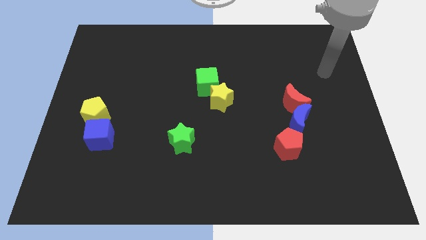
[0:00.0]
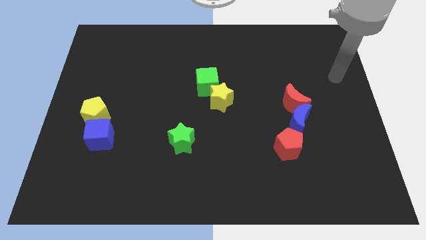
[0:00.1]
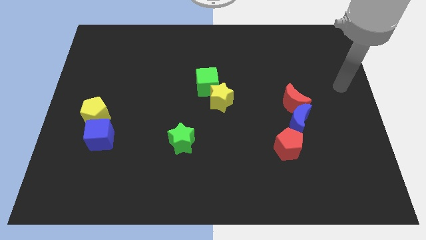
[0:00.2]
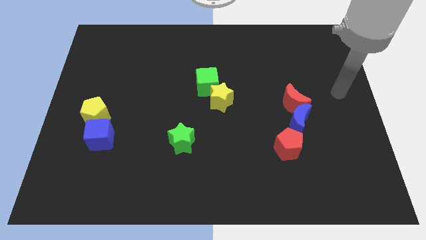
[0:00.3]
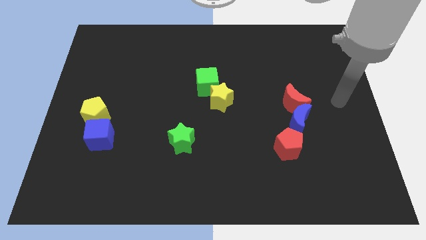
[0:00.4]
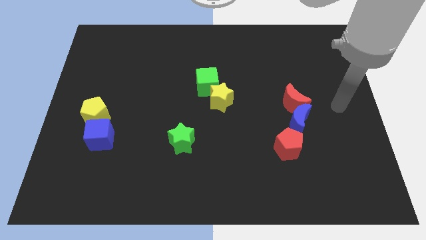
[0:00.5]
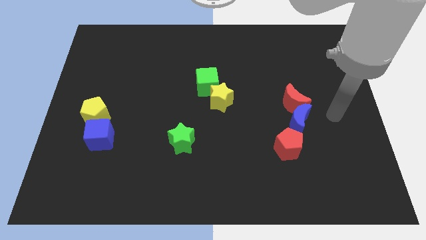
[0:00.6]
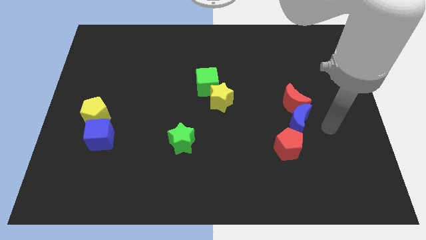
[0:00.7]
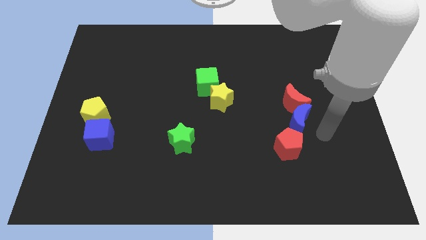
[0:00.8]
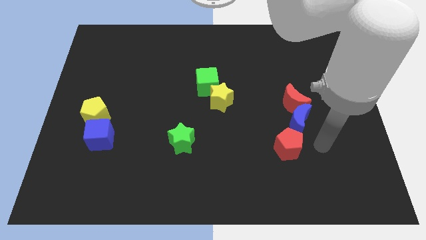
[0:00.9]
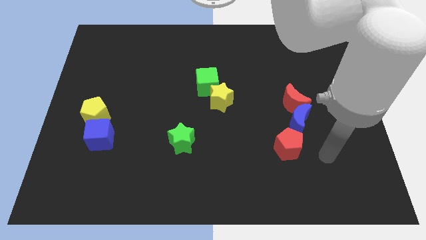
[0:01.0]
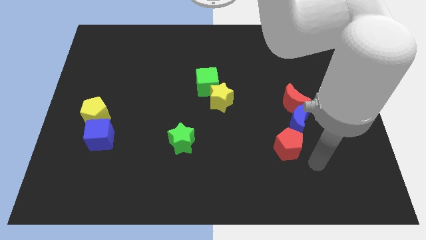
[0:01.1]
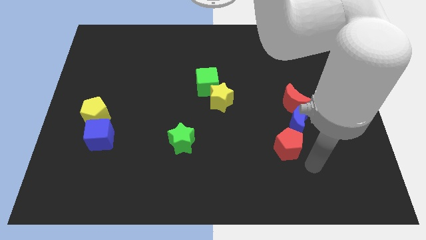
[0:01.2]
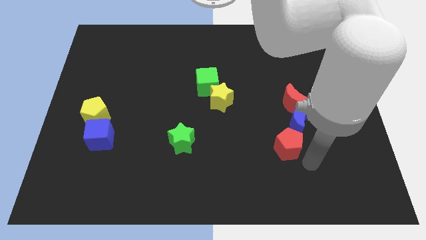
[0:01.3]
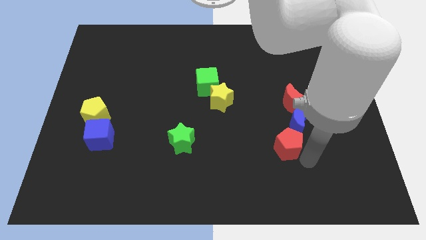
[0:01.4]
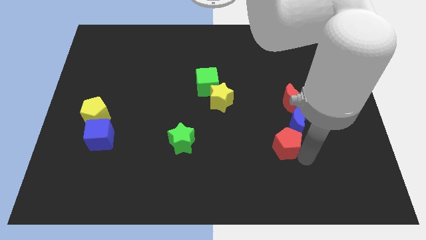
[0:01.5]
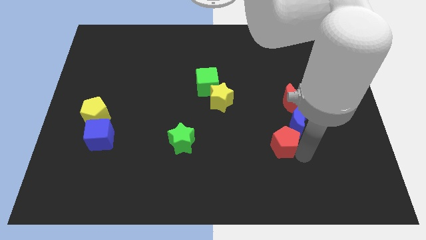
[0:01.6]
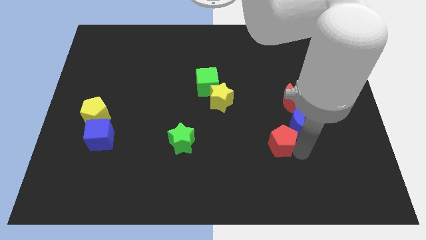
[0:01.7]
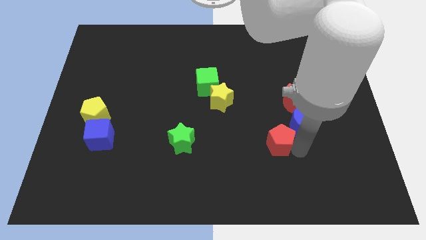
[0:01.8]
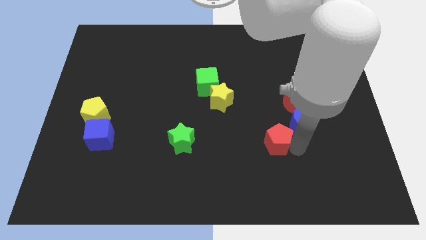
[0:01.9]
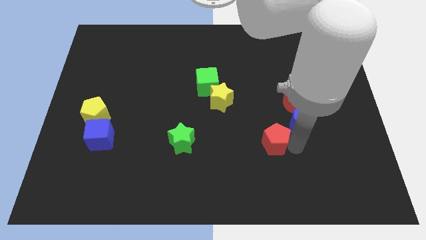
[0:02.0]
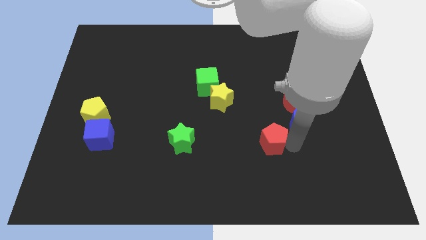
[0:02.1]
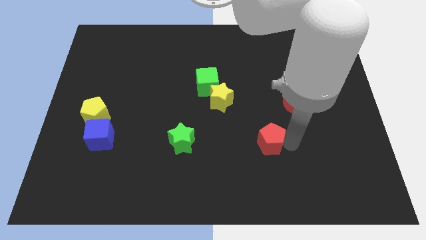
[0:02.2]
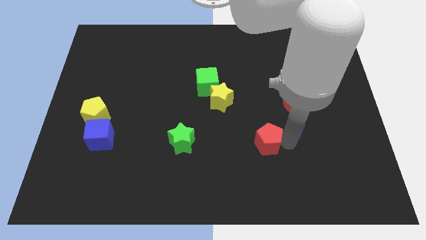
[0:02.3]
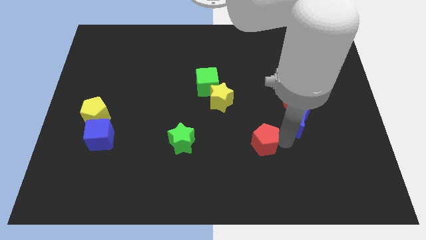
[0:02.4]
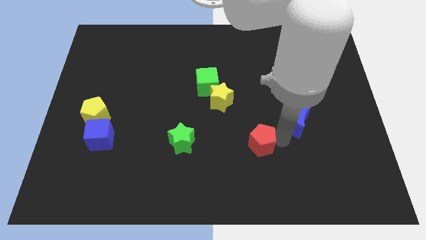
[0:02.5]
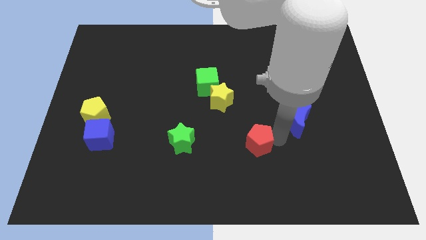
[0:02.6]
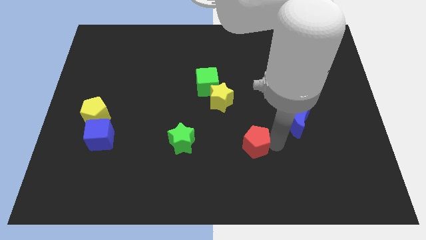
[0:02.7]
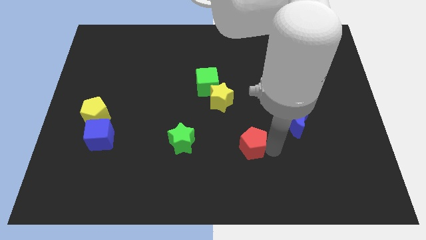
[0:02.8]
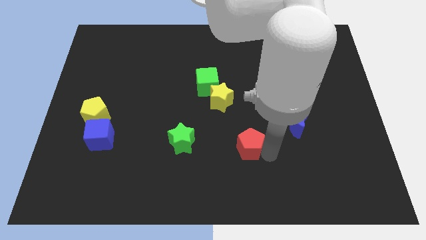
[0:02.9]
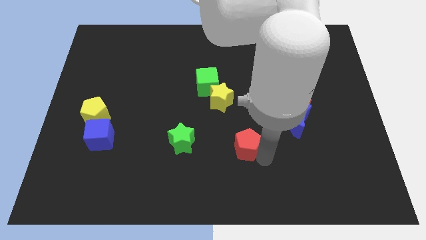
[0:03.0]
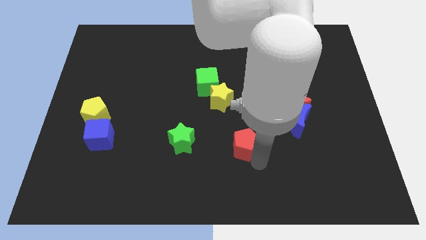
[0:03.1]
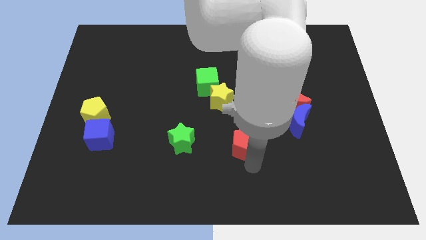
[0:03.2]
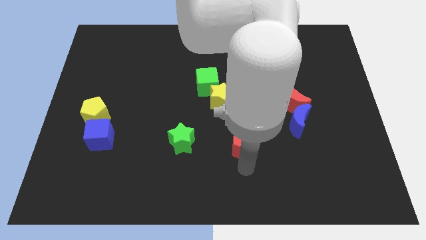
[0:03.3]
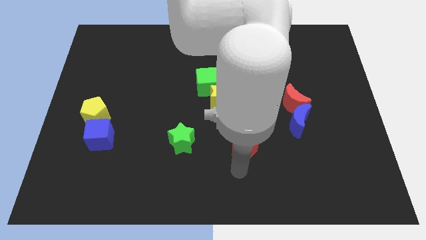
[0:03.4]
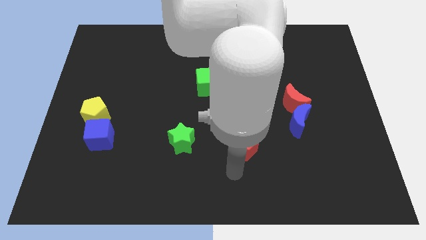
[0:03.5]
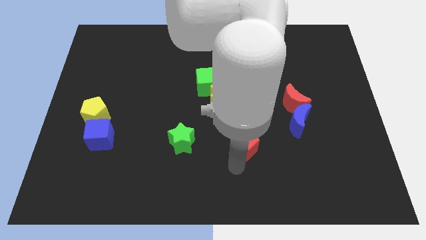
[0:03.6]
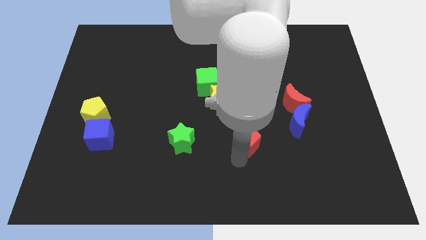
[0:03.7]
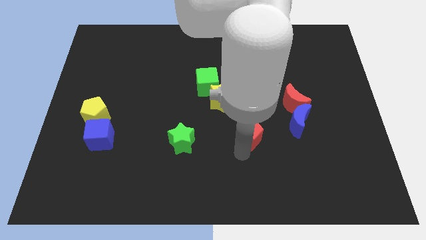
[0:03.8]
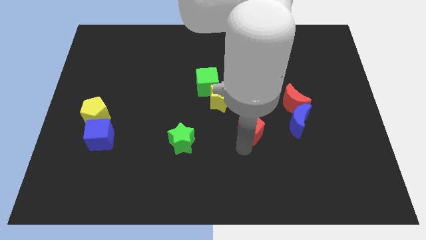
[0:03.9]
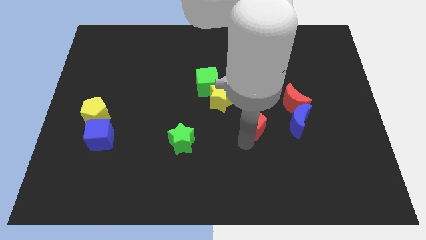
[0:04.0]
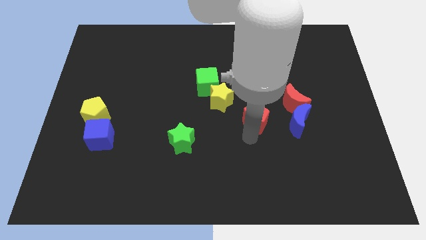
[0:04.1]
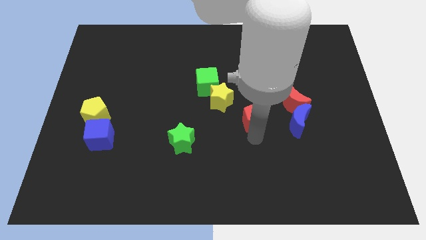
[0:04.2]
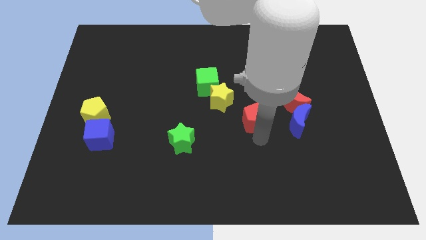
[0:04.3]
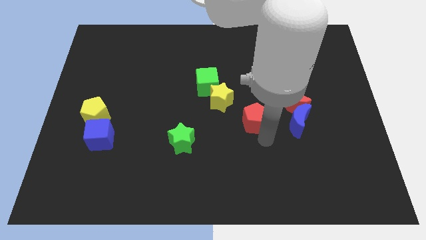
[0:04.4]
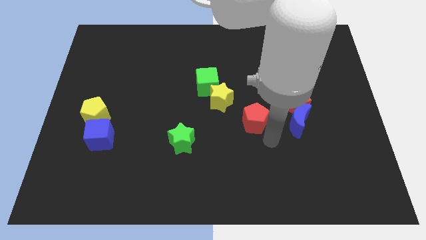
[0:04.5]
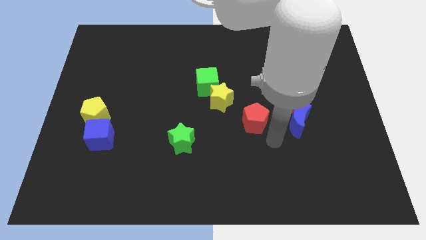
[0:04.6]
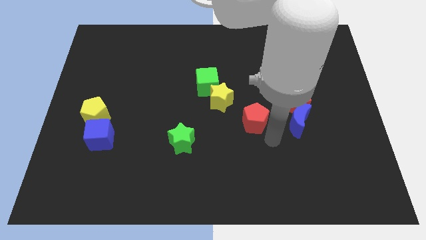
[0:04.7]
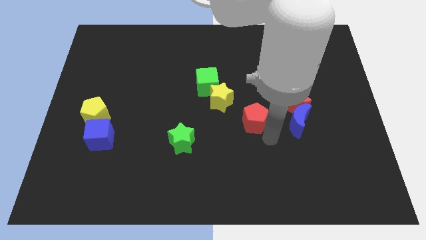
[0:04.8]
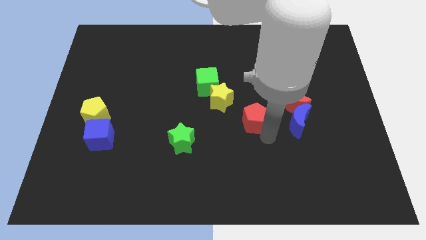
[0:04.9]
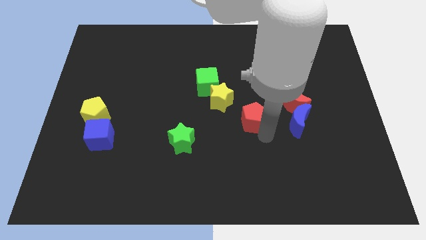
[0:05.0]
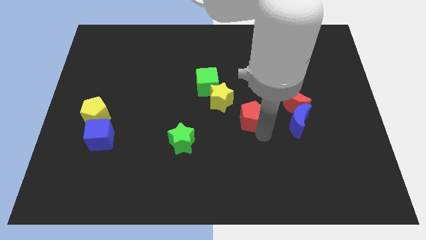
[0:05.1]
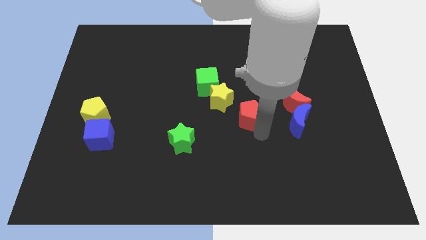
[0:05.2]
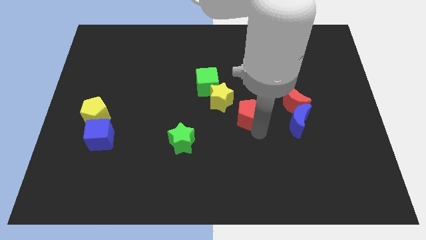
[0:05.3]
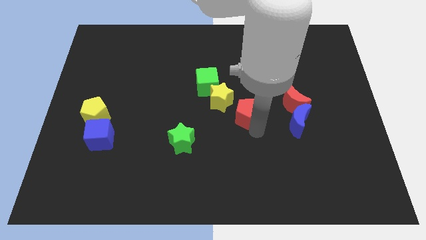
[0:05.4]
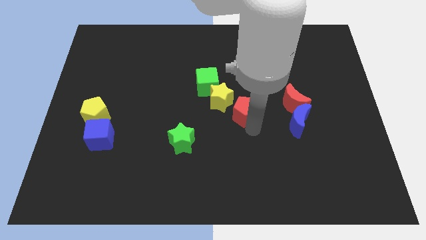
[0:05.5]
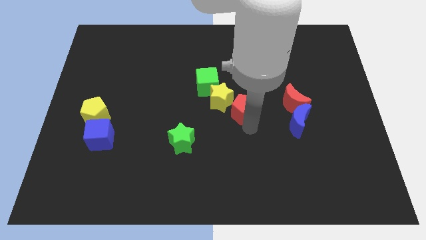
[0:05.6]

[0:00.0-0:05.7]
push the red pentagon next to the yellow star

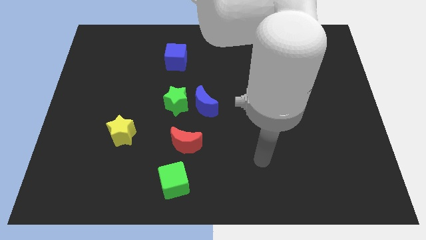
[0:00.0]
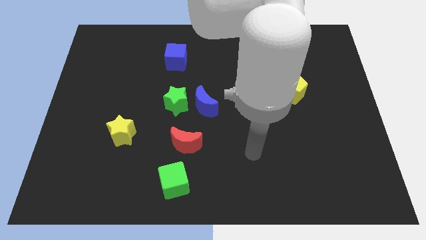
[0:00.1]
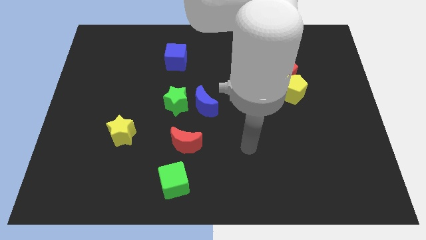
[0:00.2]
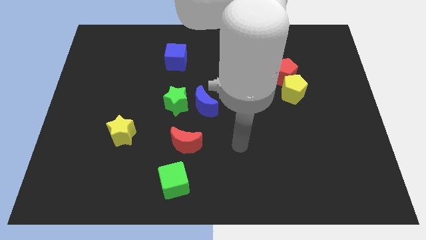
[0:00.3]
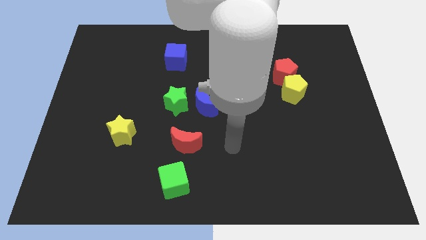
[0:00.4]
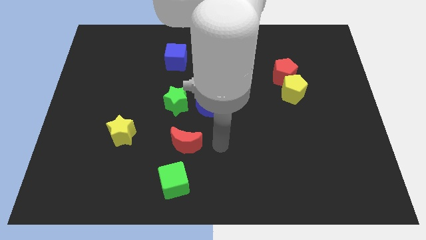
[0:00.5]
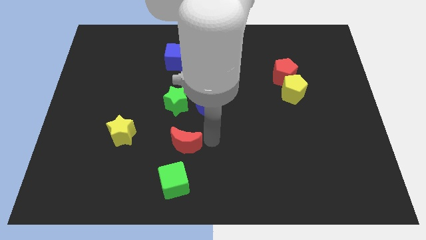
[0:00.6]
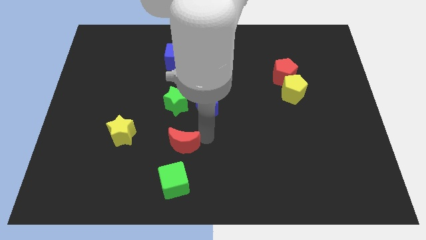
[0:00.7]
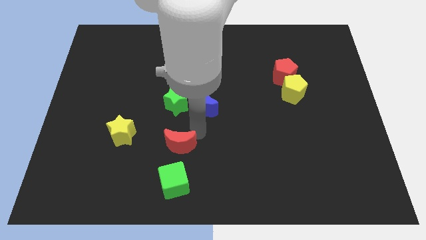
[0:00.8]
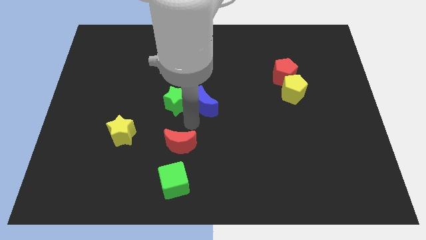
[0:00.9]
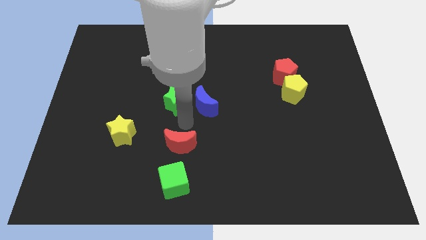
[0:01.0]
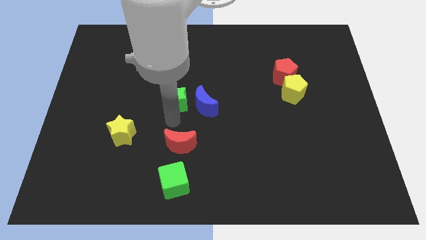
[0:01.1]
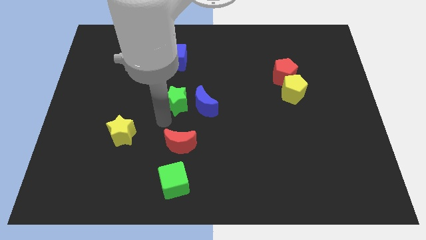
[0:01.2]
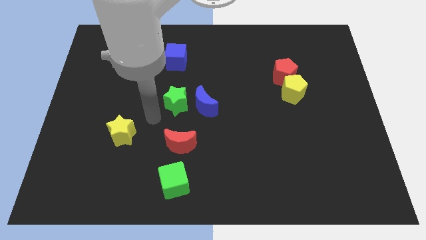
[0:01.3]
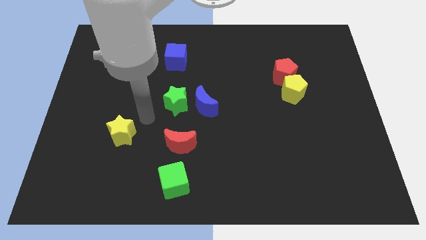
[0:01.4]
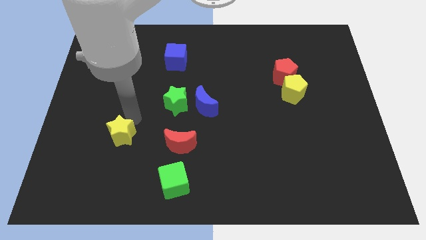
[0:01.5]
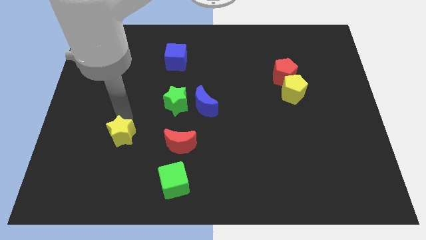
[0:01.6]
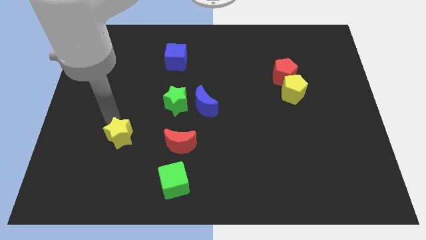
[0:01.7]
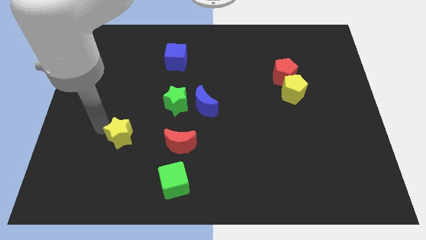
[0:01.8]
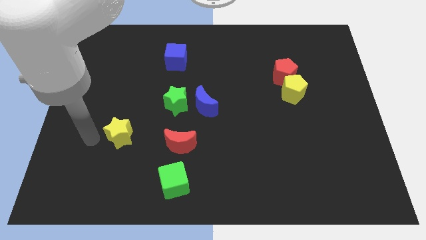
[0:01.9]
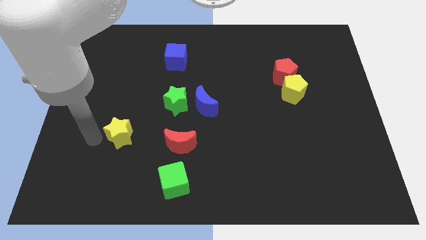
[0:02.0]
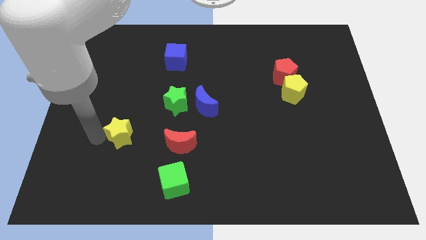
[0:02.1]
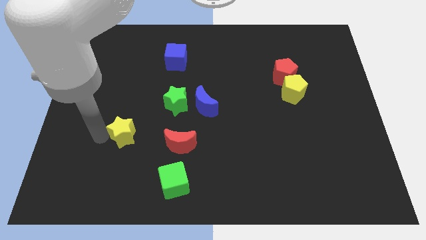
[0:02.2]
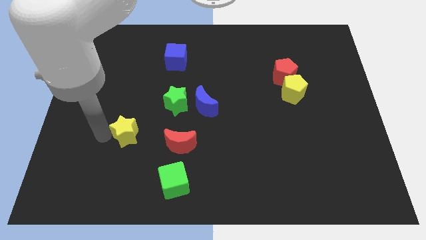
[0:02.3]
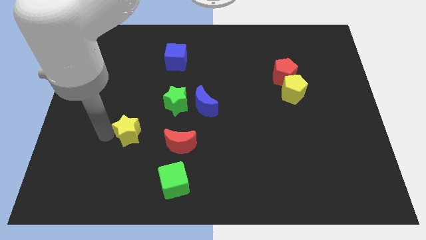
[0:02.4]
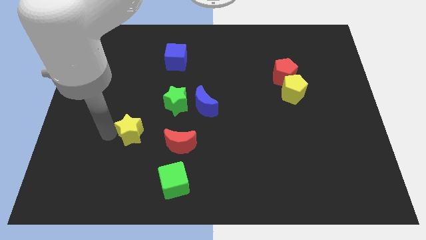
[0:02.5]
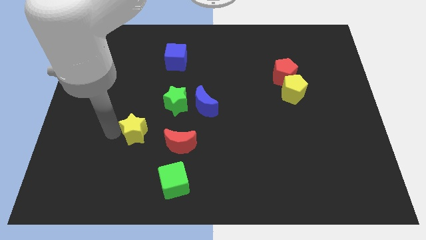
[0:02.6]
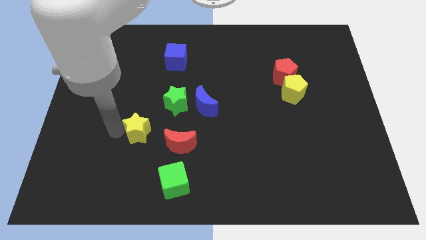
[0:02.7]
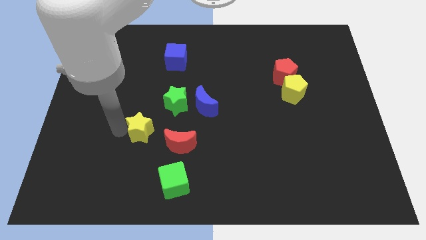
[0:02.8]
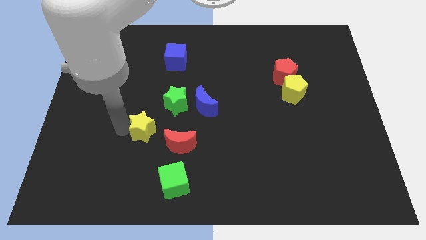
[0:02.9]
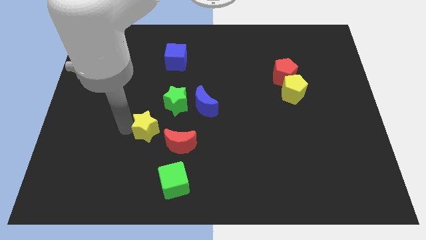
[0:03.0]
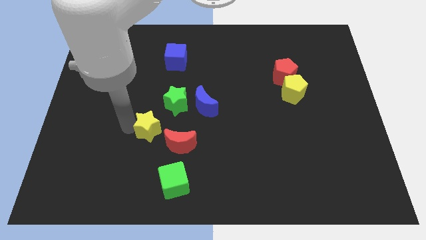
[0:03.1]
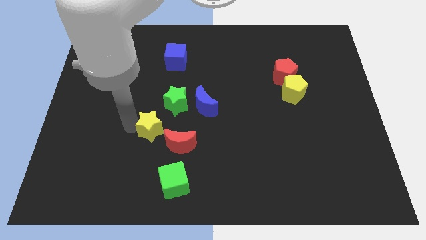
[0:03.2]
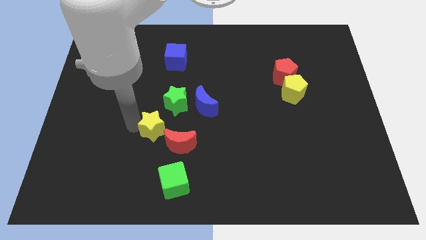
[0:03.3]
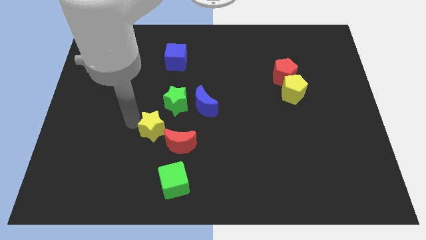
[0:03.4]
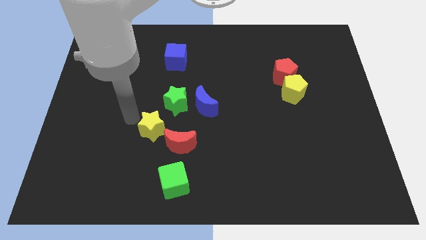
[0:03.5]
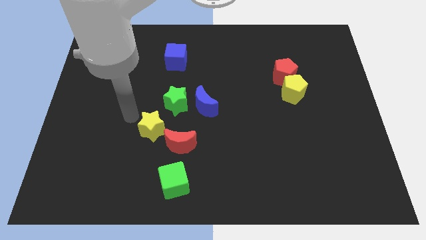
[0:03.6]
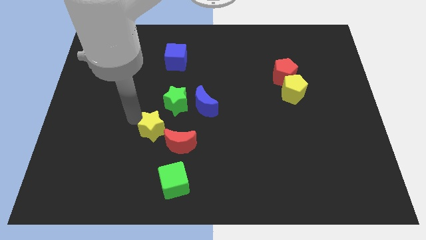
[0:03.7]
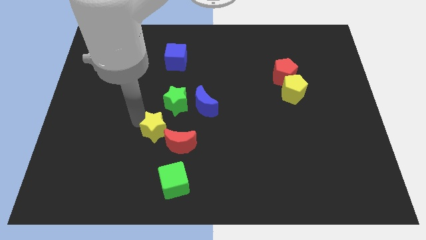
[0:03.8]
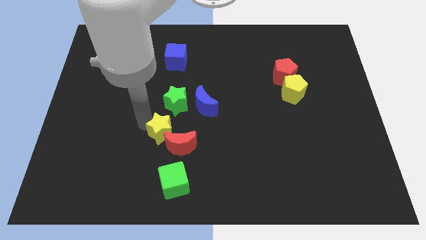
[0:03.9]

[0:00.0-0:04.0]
put the yellow star next to the red moon
